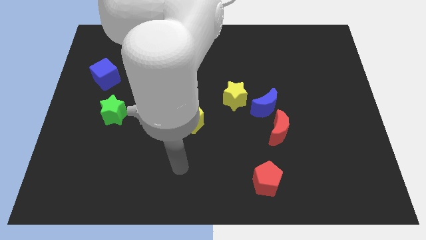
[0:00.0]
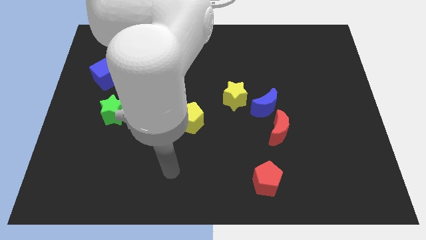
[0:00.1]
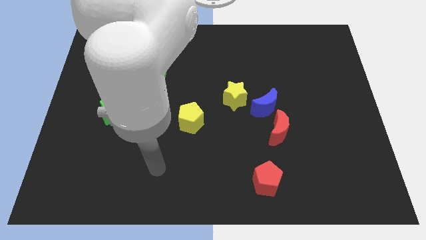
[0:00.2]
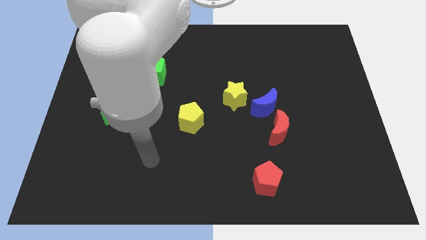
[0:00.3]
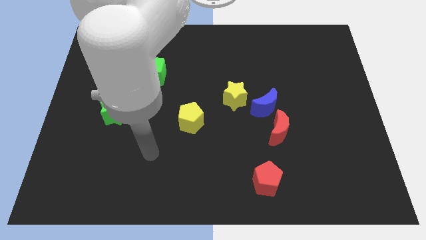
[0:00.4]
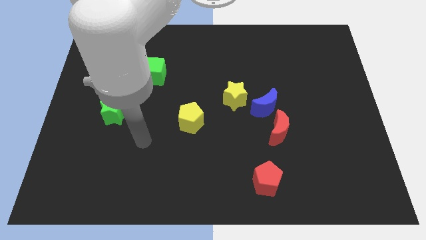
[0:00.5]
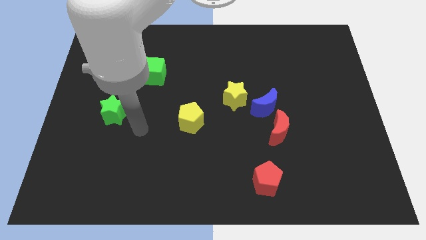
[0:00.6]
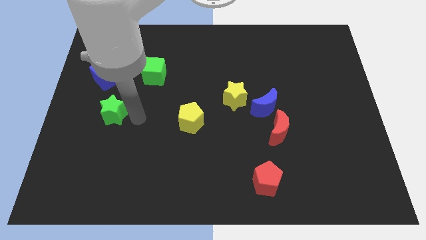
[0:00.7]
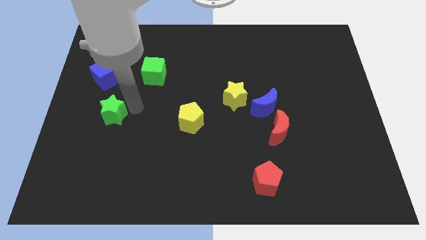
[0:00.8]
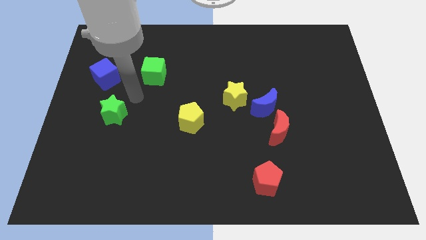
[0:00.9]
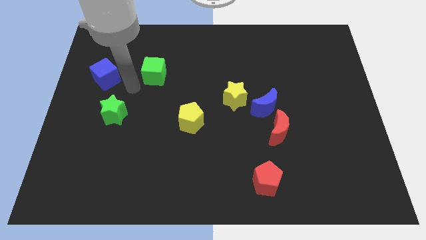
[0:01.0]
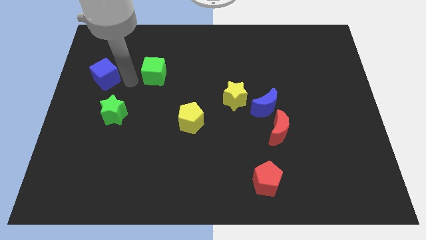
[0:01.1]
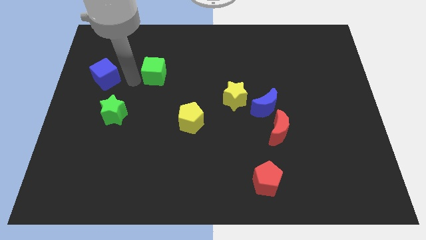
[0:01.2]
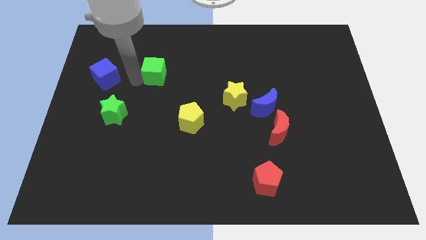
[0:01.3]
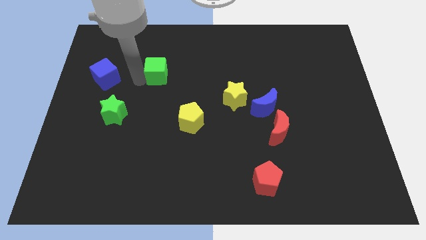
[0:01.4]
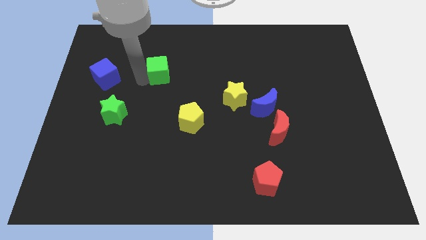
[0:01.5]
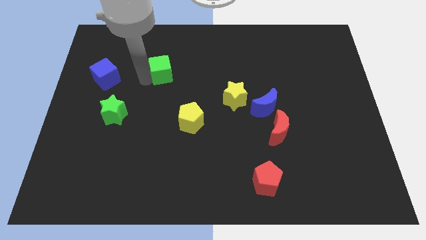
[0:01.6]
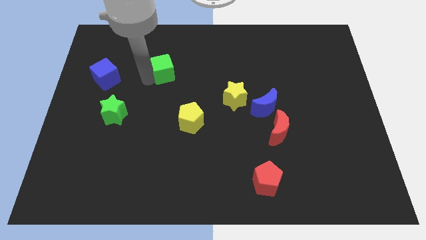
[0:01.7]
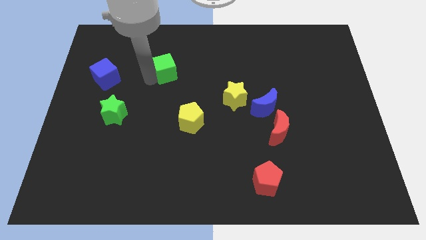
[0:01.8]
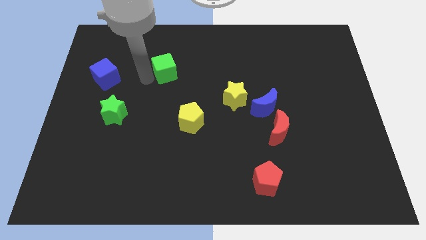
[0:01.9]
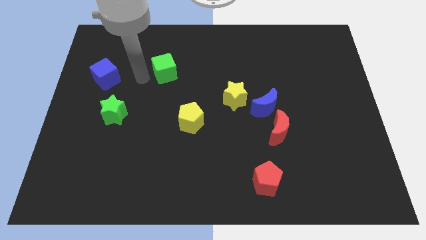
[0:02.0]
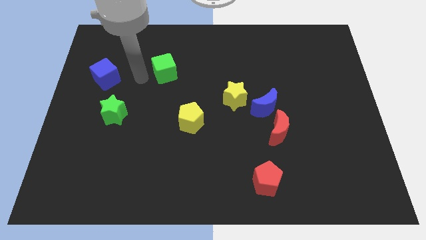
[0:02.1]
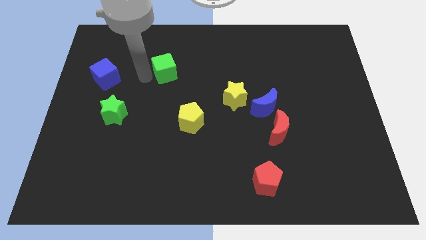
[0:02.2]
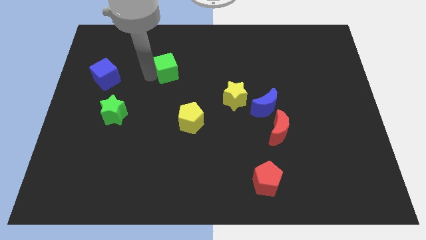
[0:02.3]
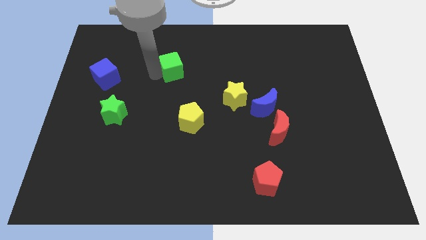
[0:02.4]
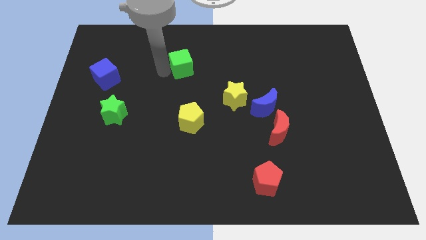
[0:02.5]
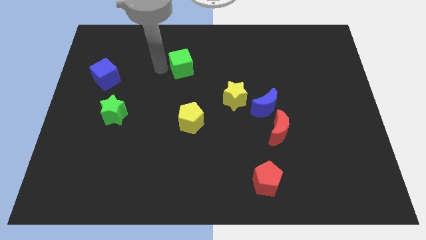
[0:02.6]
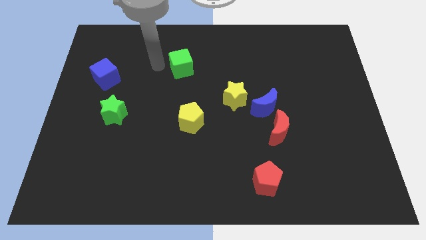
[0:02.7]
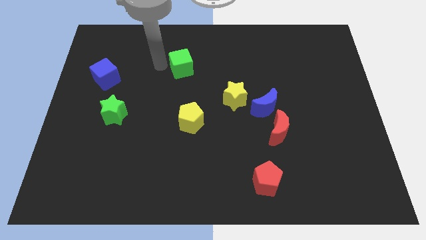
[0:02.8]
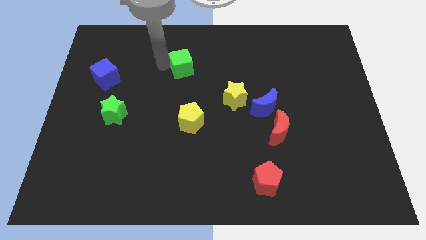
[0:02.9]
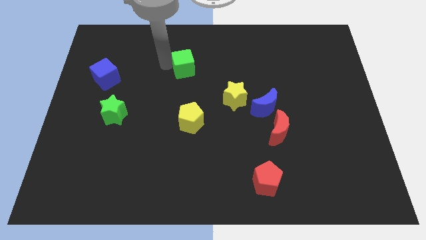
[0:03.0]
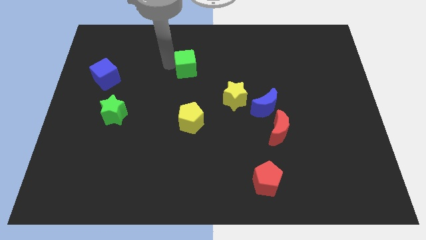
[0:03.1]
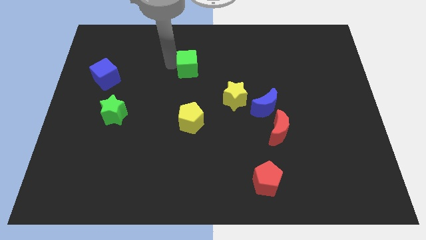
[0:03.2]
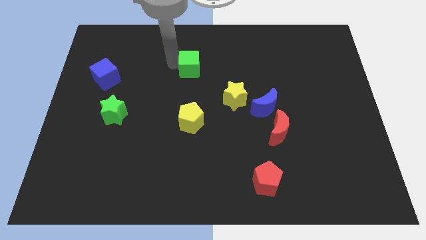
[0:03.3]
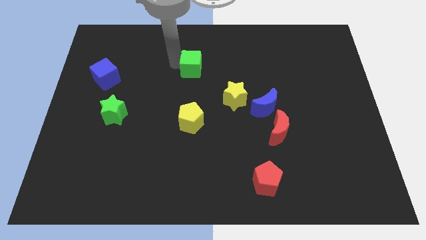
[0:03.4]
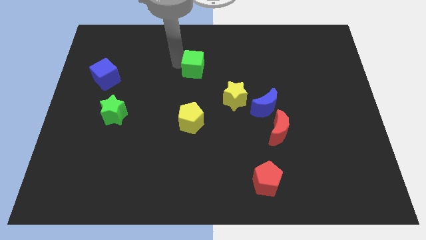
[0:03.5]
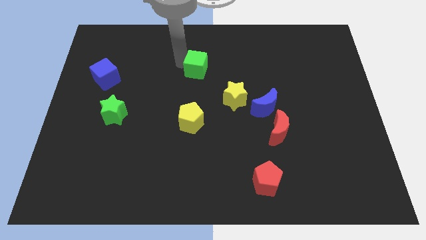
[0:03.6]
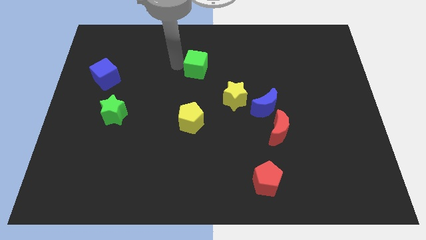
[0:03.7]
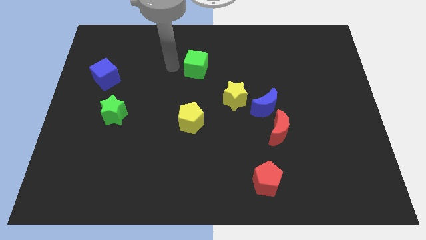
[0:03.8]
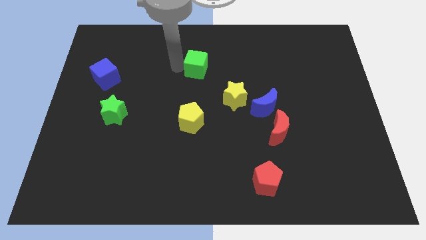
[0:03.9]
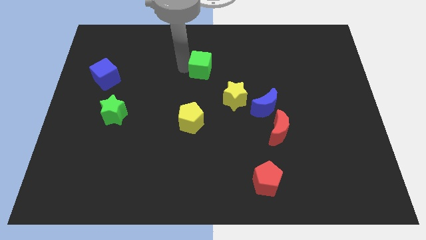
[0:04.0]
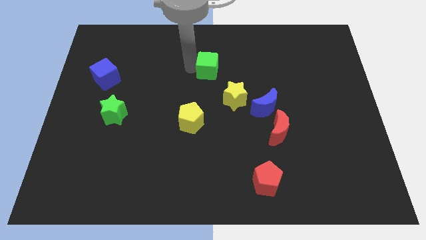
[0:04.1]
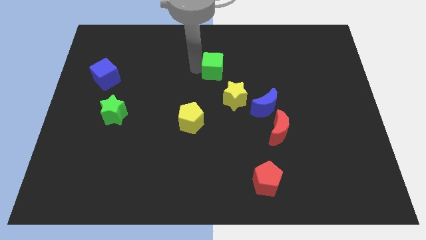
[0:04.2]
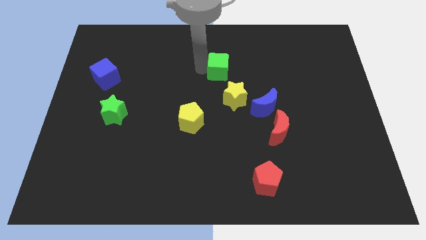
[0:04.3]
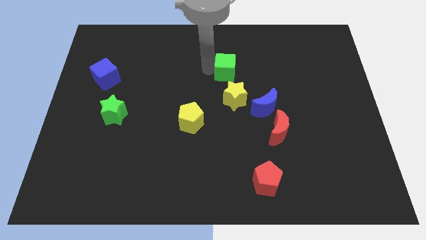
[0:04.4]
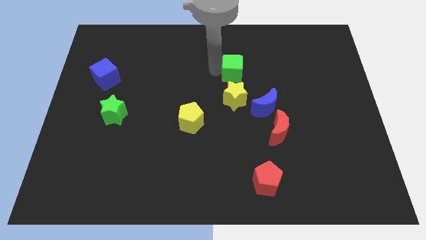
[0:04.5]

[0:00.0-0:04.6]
push the green cube right

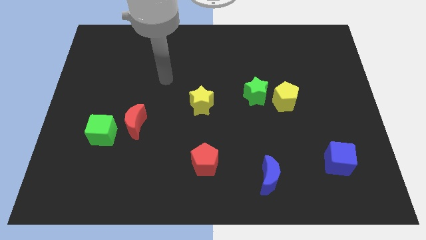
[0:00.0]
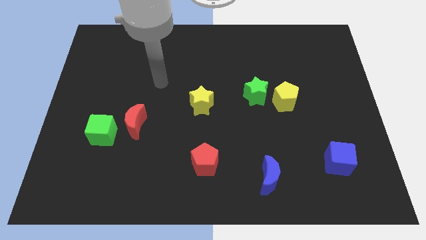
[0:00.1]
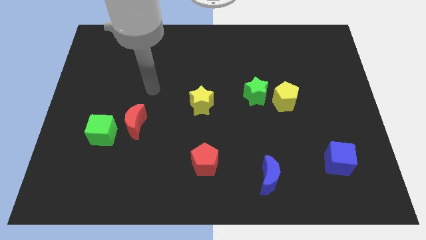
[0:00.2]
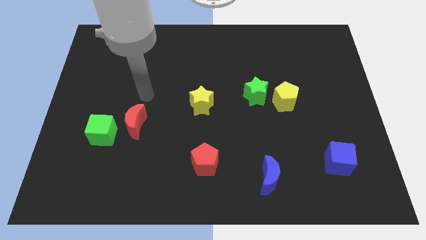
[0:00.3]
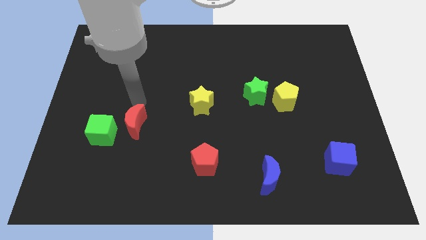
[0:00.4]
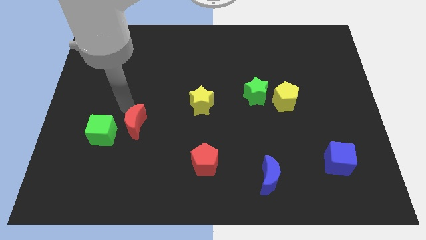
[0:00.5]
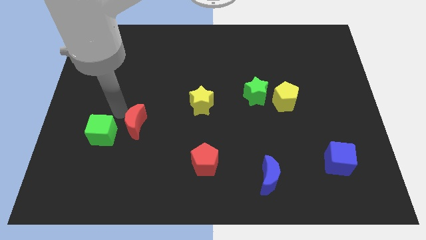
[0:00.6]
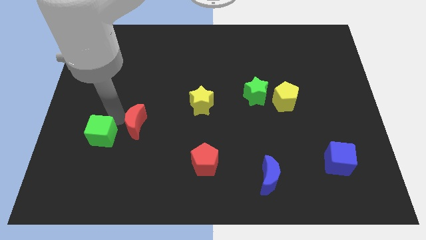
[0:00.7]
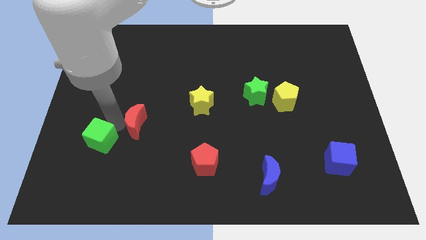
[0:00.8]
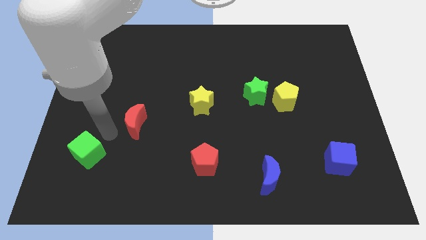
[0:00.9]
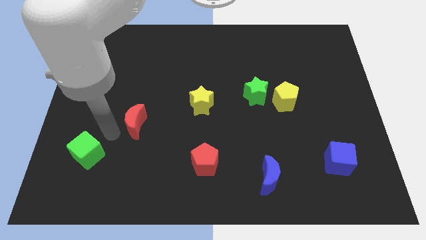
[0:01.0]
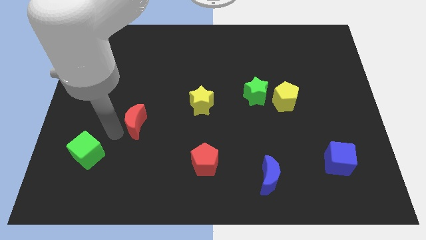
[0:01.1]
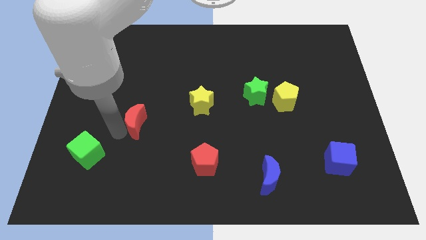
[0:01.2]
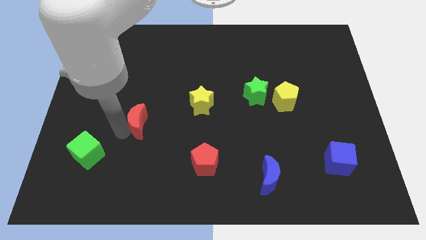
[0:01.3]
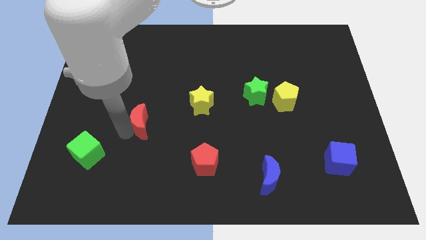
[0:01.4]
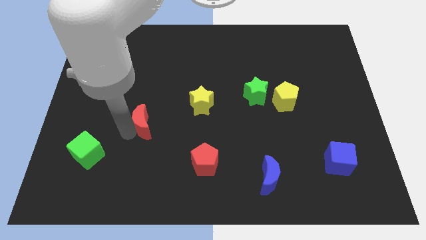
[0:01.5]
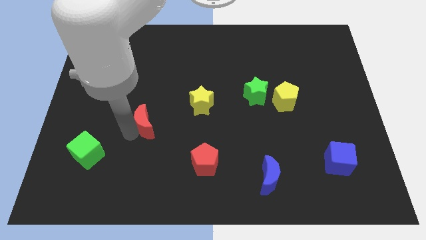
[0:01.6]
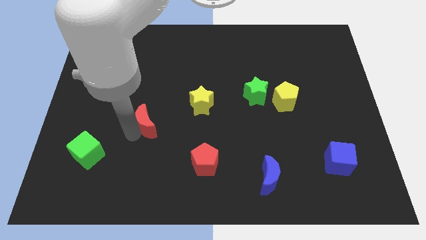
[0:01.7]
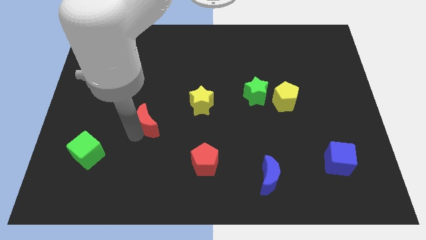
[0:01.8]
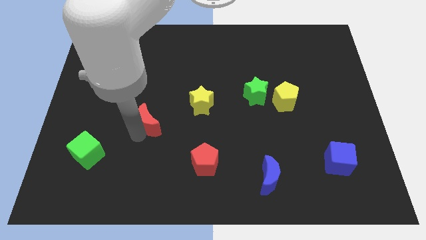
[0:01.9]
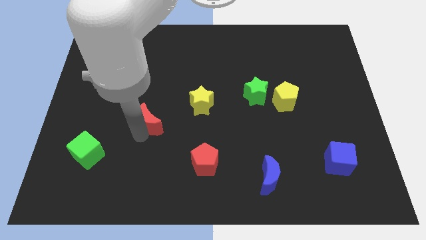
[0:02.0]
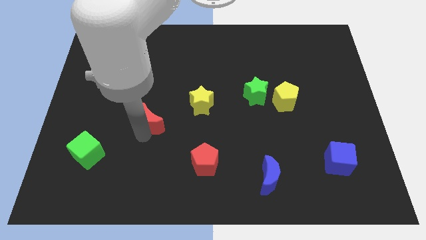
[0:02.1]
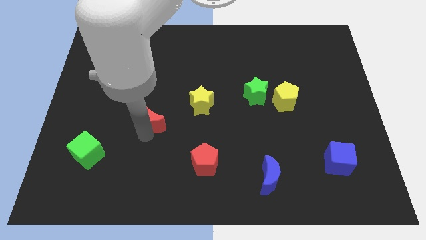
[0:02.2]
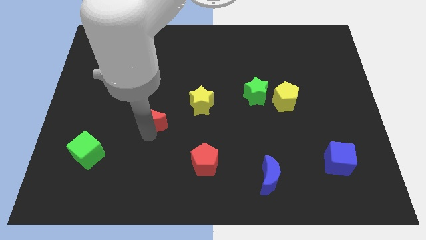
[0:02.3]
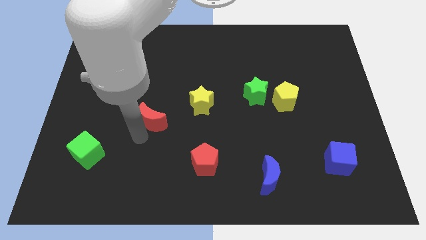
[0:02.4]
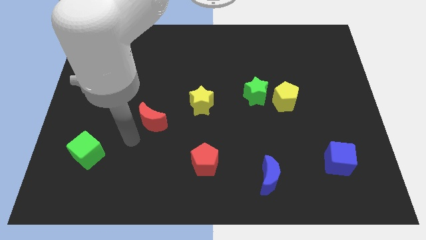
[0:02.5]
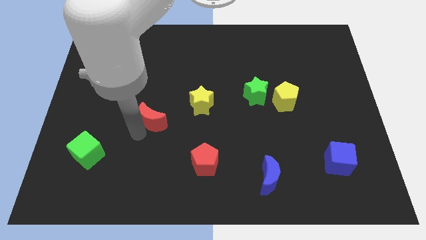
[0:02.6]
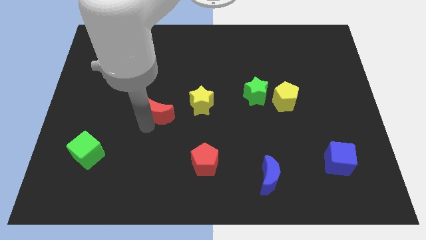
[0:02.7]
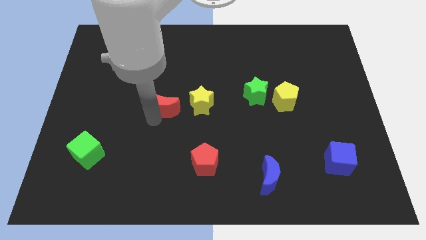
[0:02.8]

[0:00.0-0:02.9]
slide the red moon somewhat diagonally up and right

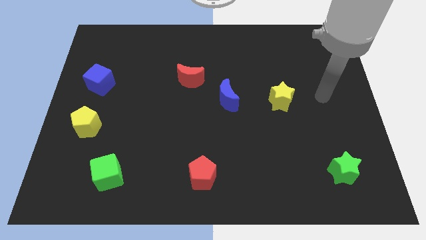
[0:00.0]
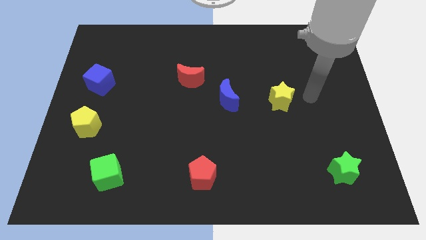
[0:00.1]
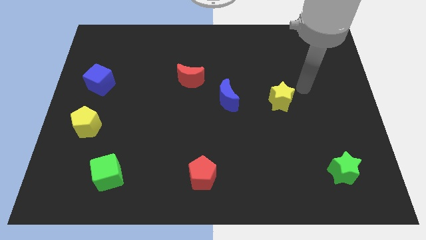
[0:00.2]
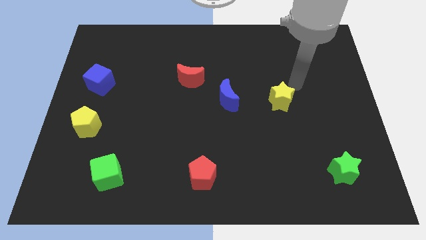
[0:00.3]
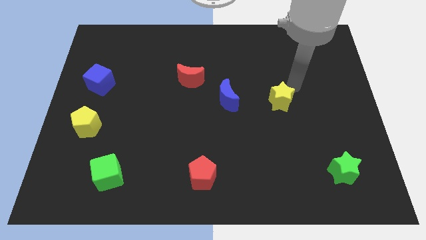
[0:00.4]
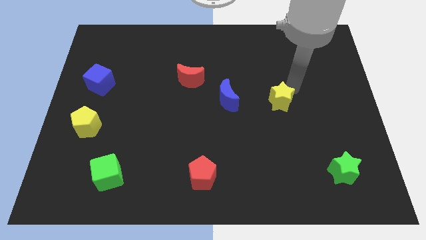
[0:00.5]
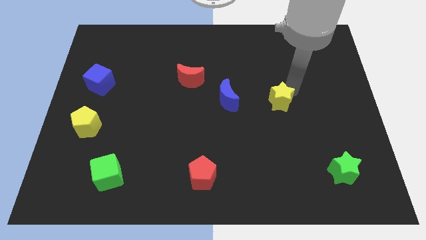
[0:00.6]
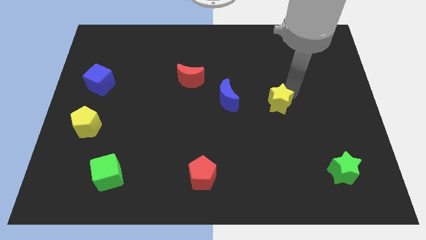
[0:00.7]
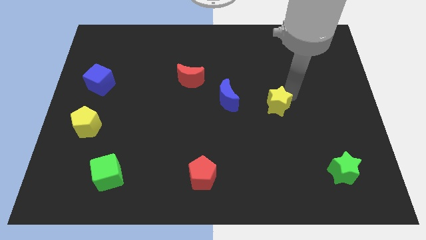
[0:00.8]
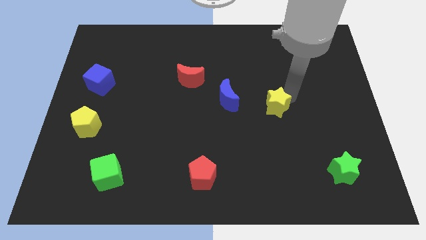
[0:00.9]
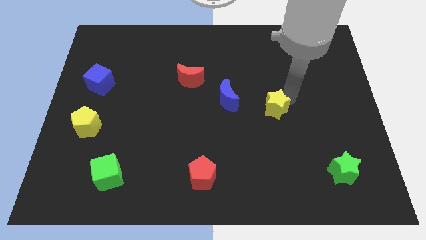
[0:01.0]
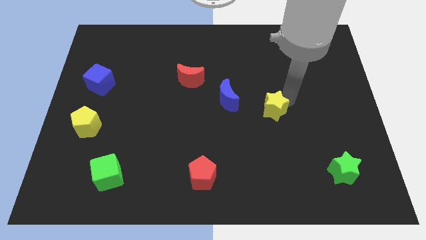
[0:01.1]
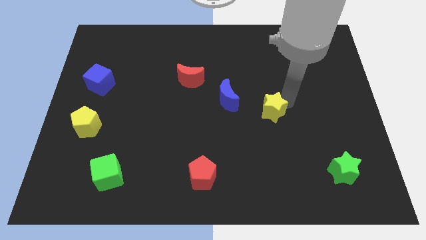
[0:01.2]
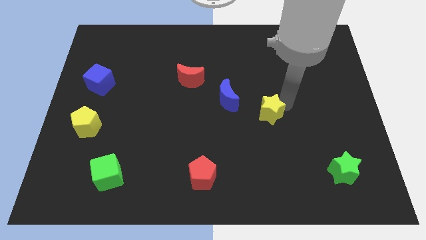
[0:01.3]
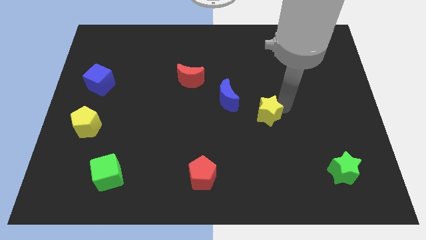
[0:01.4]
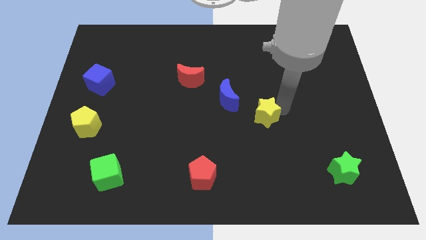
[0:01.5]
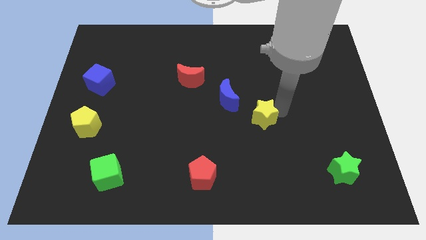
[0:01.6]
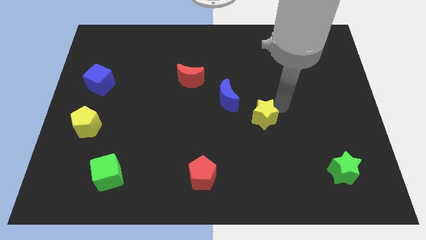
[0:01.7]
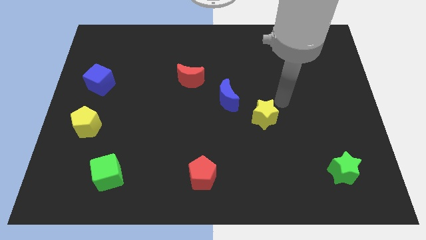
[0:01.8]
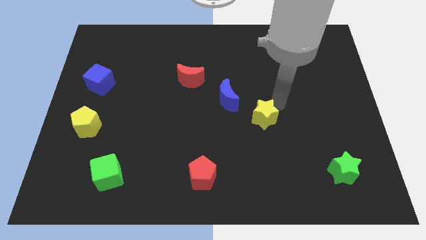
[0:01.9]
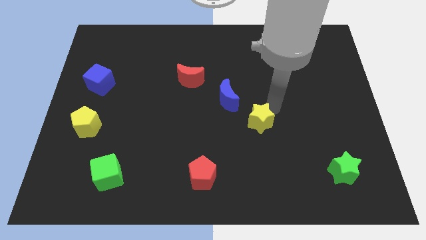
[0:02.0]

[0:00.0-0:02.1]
push the yellow star slightly down and then left
